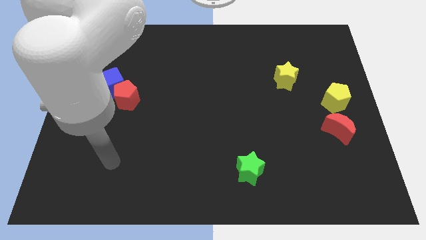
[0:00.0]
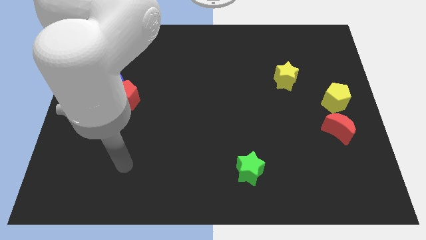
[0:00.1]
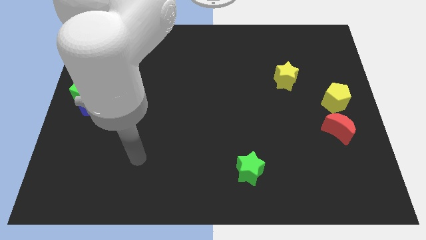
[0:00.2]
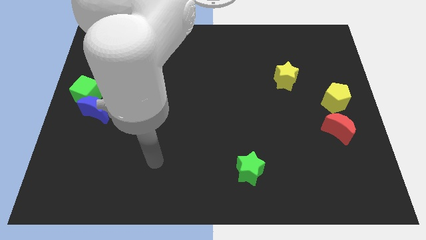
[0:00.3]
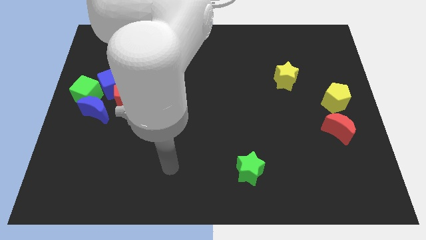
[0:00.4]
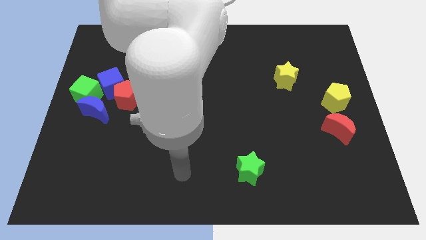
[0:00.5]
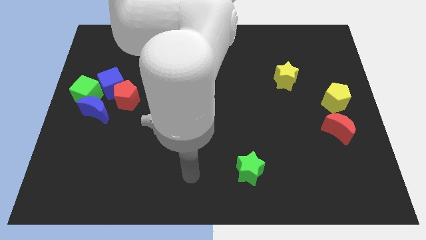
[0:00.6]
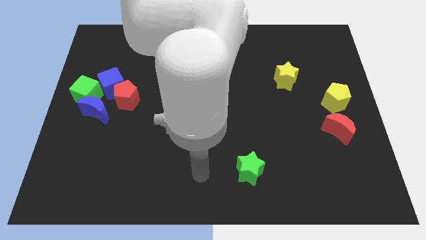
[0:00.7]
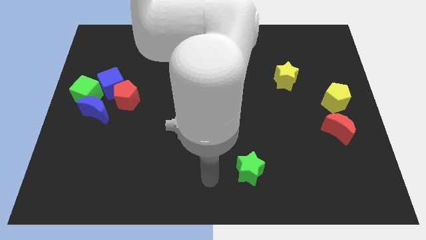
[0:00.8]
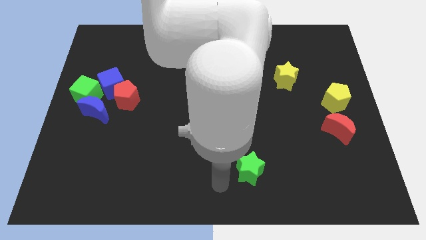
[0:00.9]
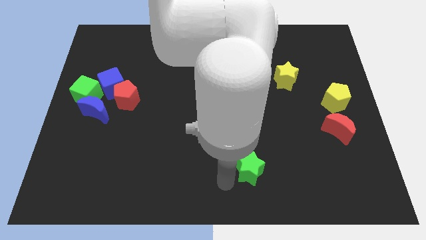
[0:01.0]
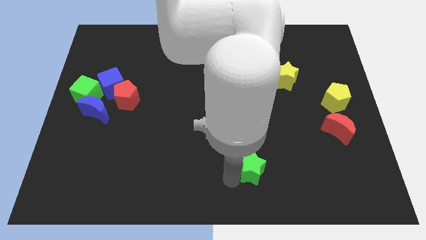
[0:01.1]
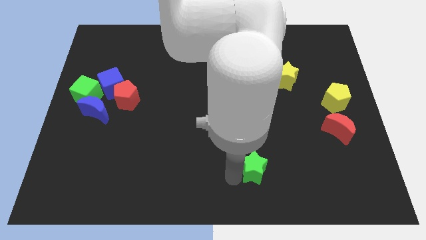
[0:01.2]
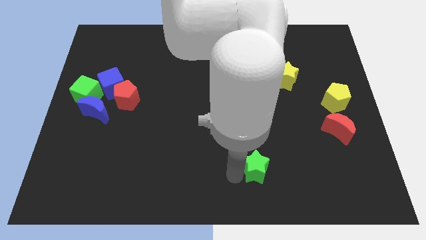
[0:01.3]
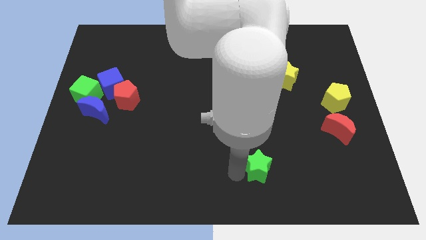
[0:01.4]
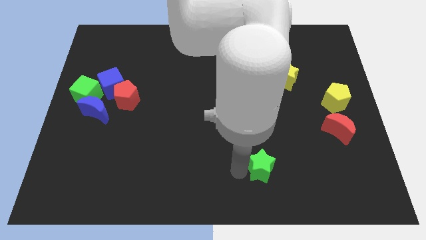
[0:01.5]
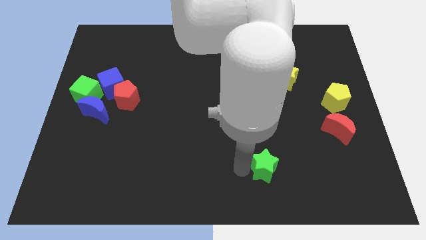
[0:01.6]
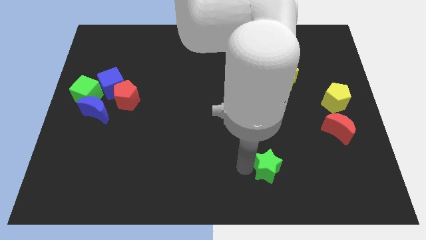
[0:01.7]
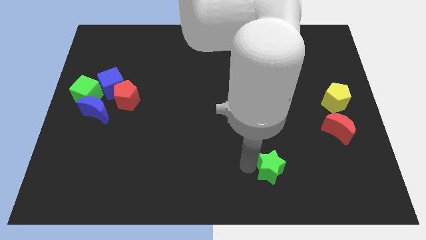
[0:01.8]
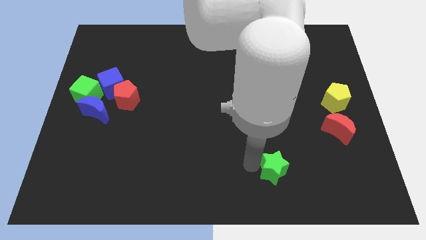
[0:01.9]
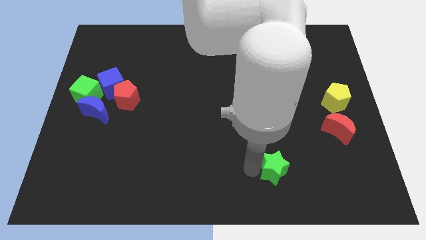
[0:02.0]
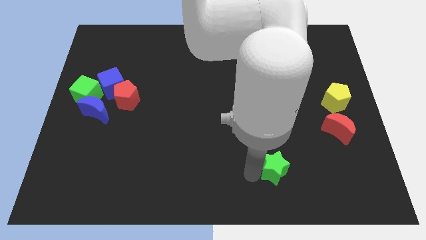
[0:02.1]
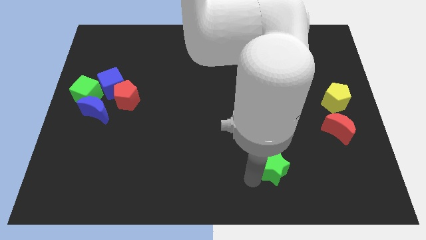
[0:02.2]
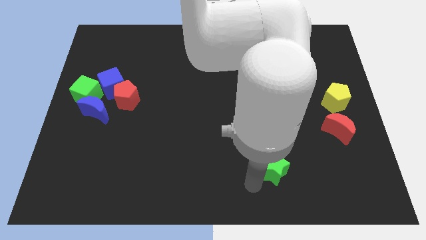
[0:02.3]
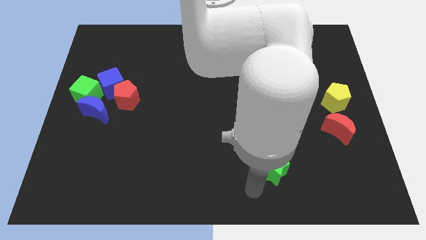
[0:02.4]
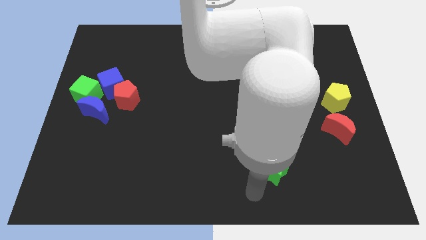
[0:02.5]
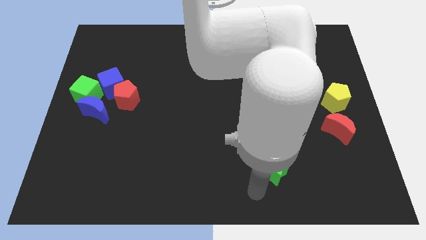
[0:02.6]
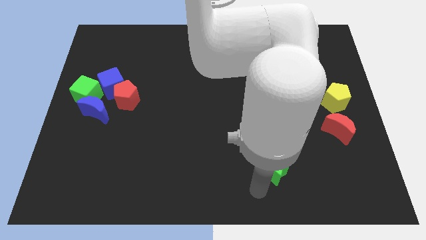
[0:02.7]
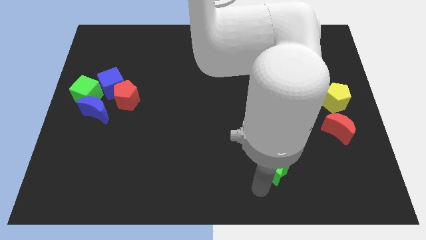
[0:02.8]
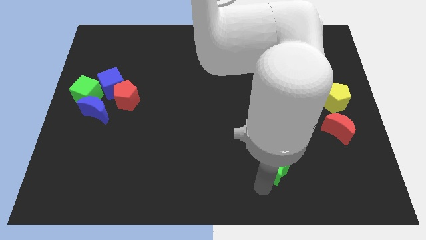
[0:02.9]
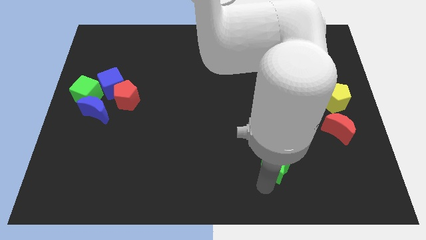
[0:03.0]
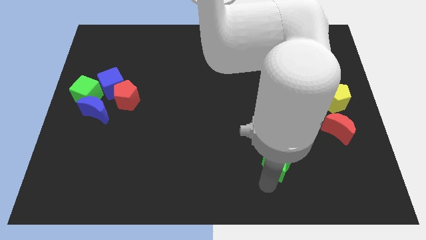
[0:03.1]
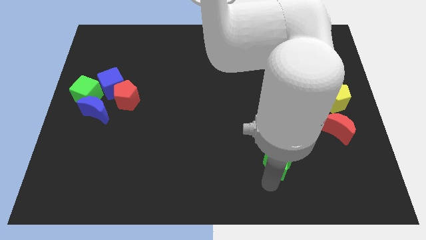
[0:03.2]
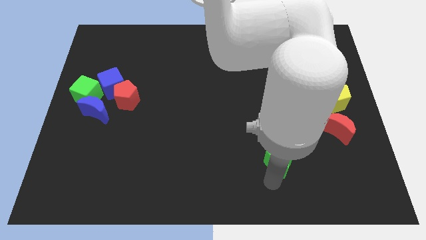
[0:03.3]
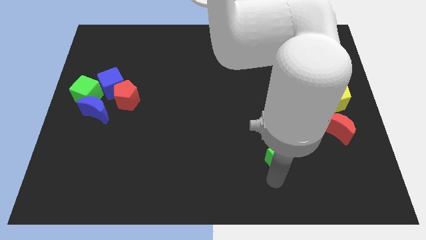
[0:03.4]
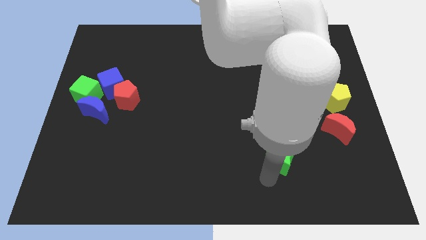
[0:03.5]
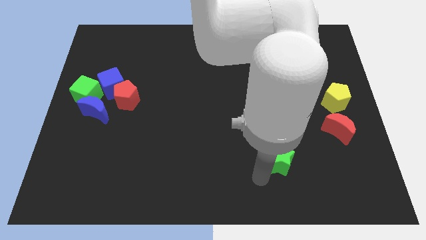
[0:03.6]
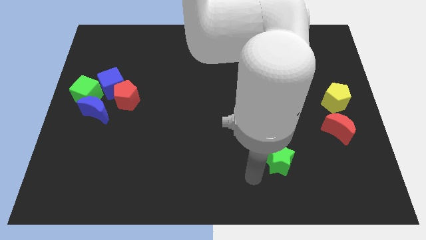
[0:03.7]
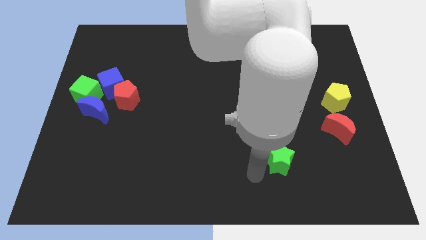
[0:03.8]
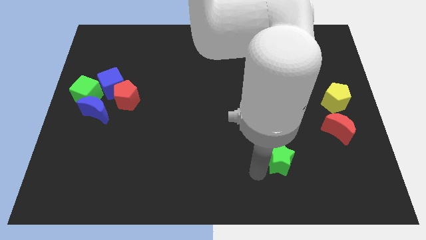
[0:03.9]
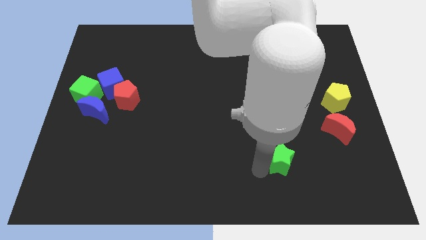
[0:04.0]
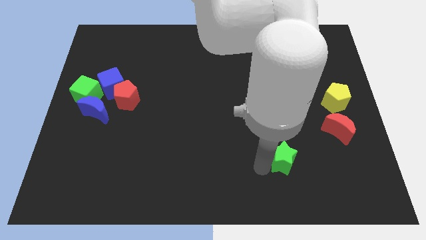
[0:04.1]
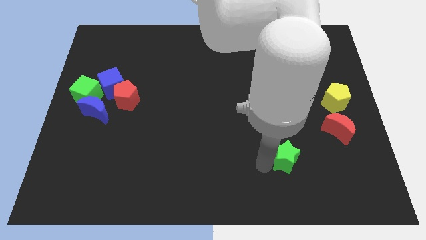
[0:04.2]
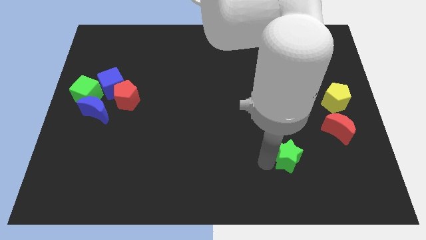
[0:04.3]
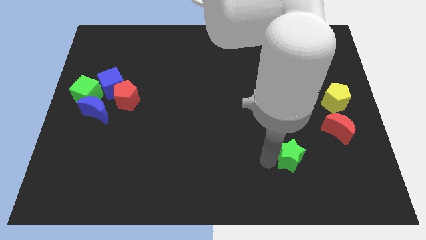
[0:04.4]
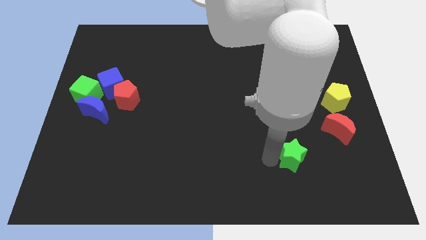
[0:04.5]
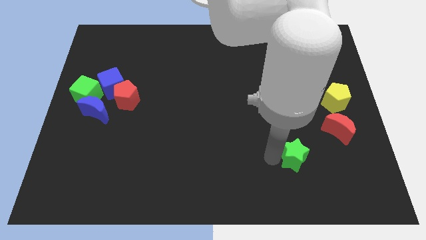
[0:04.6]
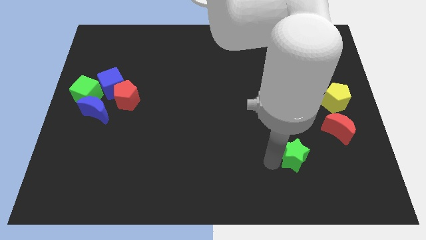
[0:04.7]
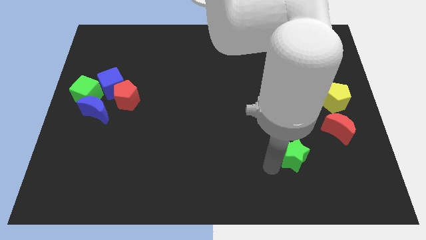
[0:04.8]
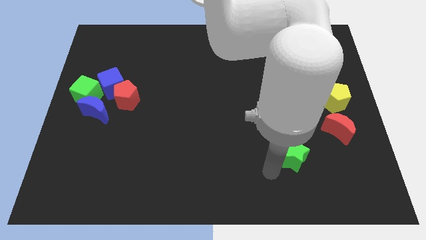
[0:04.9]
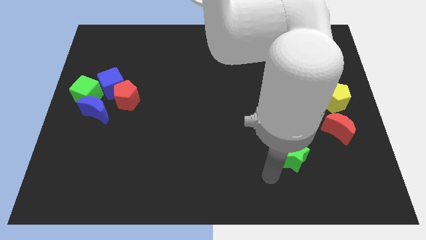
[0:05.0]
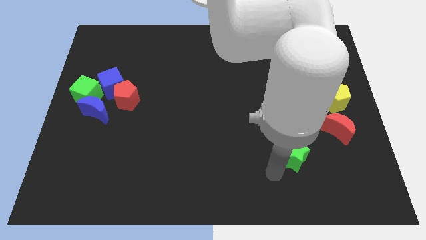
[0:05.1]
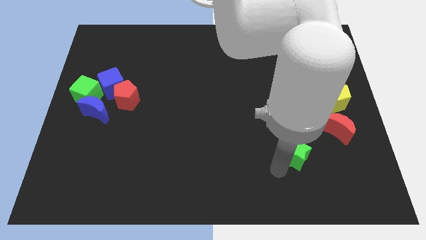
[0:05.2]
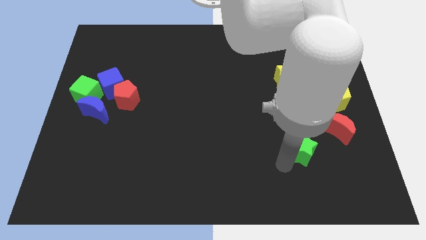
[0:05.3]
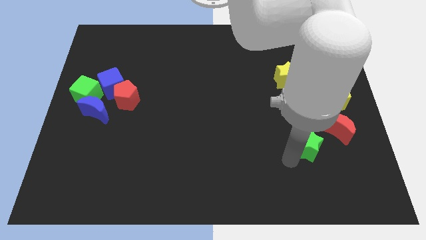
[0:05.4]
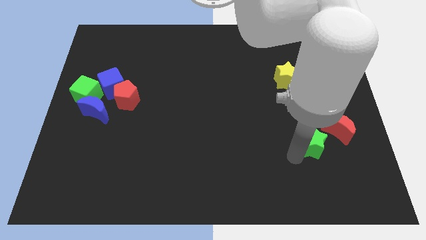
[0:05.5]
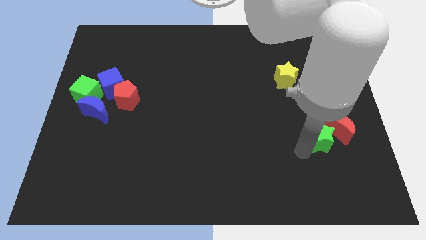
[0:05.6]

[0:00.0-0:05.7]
move the green star to the red moon

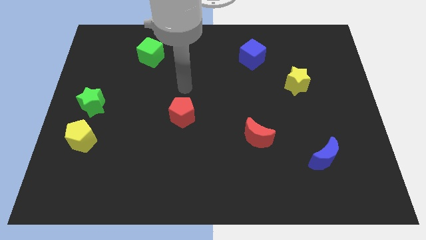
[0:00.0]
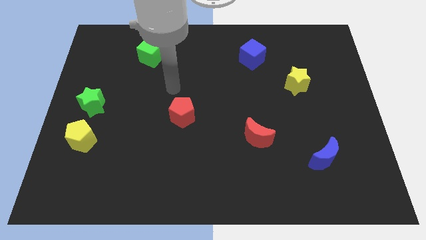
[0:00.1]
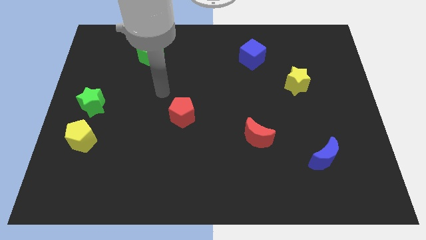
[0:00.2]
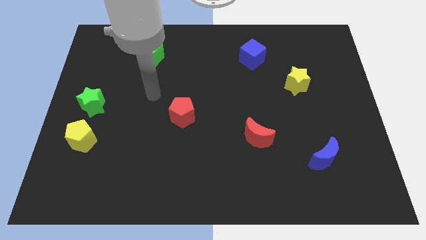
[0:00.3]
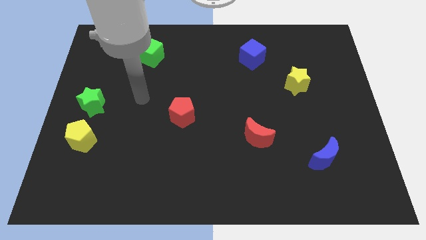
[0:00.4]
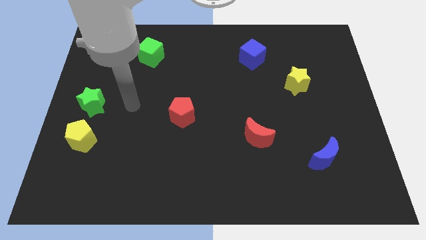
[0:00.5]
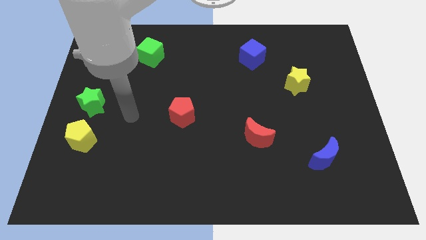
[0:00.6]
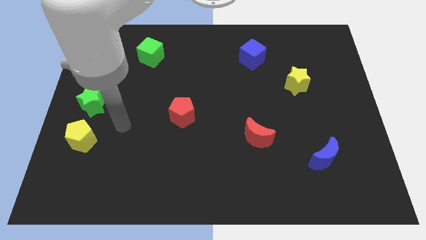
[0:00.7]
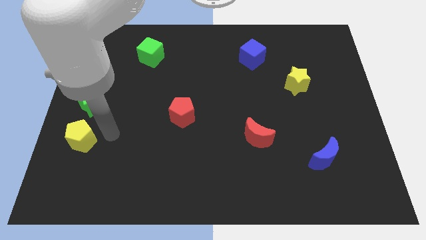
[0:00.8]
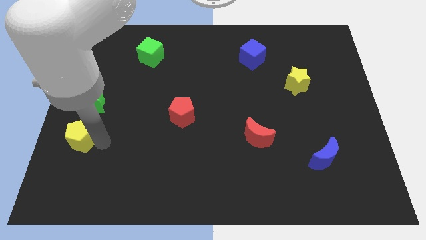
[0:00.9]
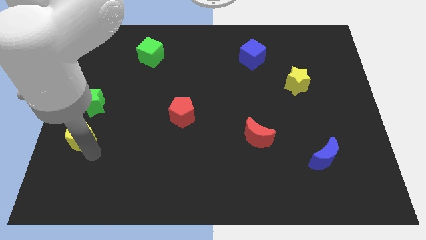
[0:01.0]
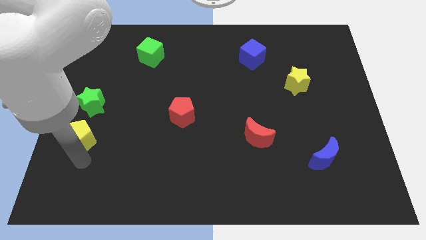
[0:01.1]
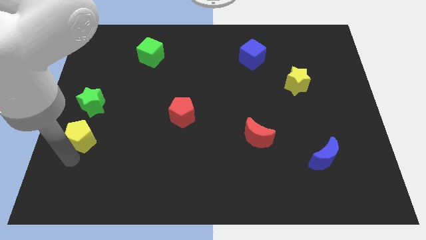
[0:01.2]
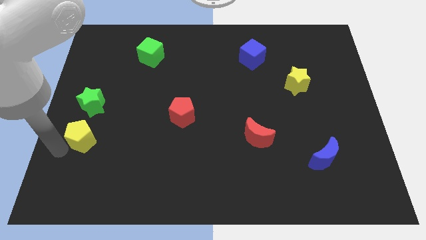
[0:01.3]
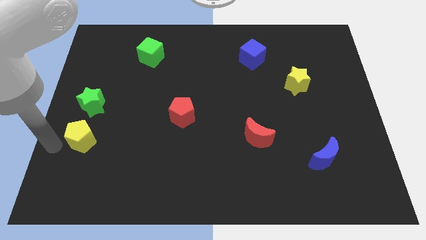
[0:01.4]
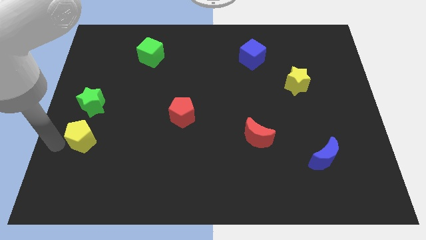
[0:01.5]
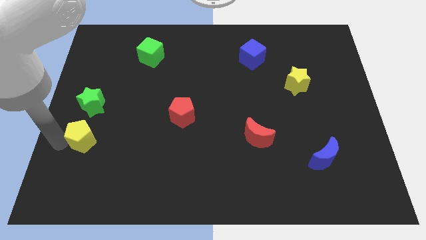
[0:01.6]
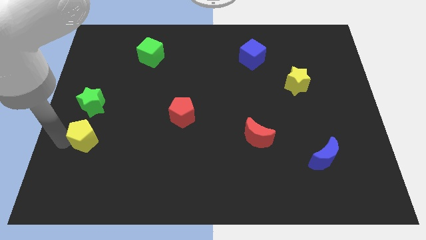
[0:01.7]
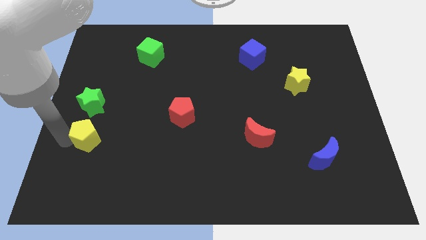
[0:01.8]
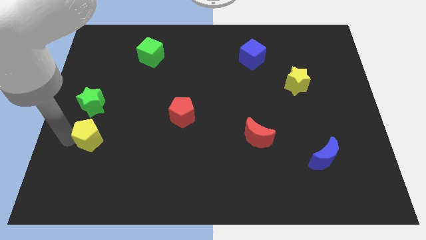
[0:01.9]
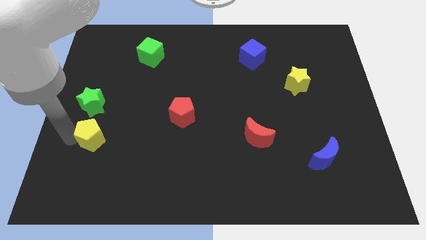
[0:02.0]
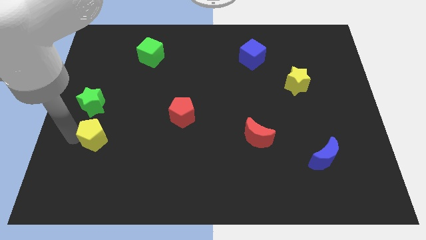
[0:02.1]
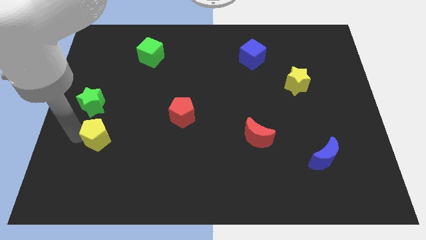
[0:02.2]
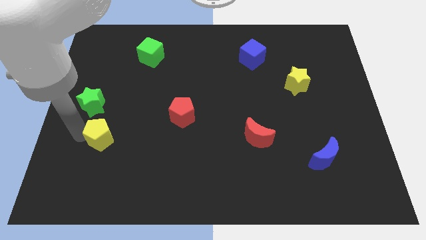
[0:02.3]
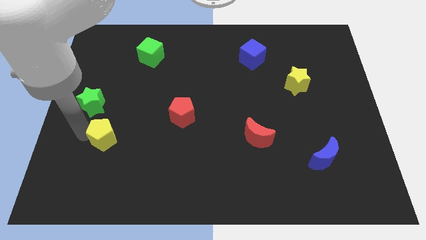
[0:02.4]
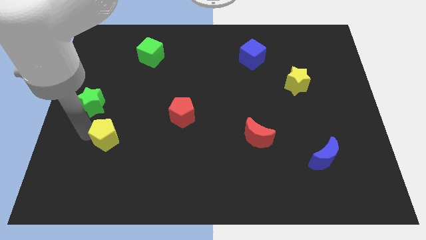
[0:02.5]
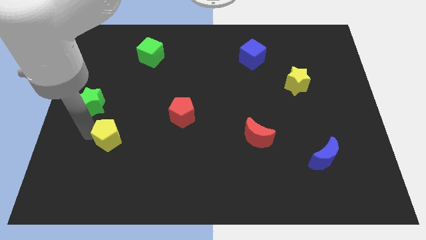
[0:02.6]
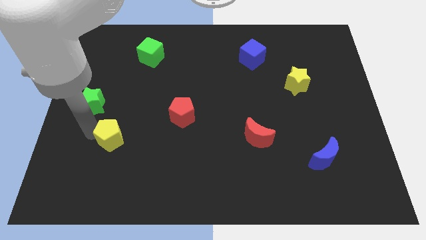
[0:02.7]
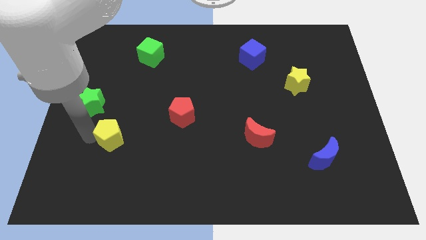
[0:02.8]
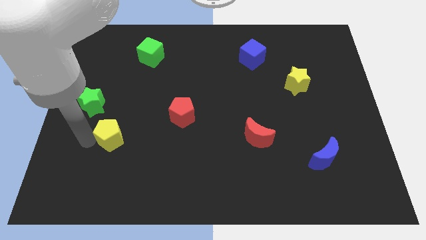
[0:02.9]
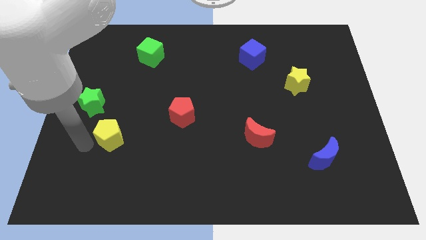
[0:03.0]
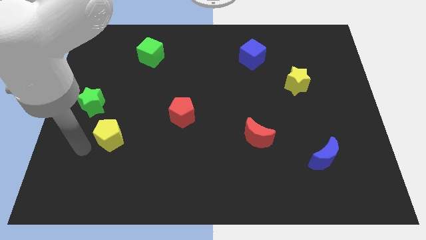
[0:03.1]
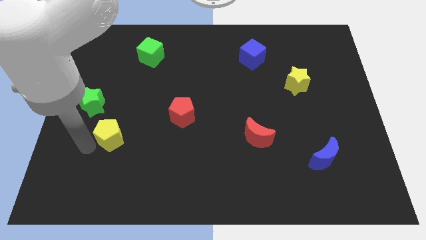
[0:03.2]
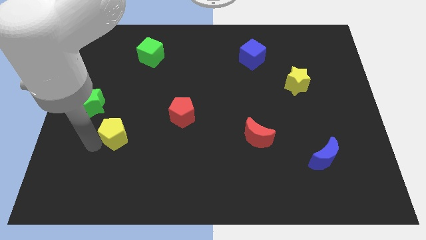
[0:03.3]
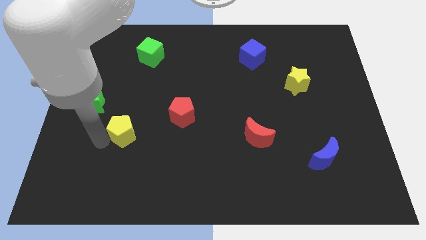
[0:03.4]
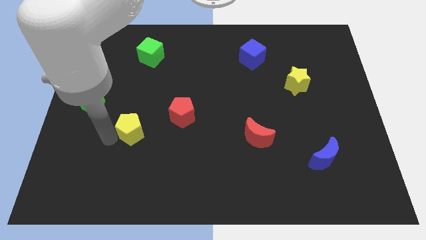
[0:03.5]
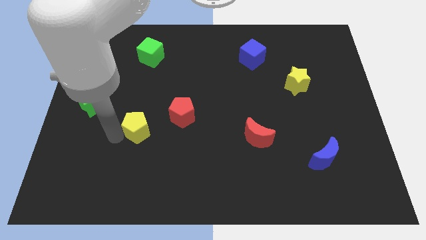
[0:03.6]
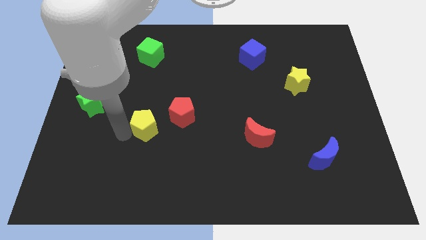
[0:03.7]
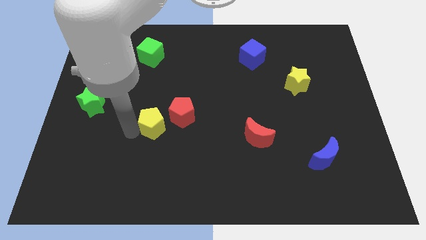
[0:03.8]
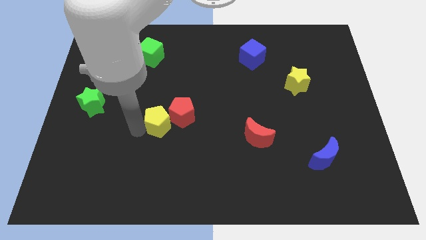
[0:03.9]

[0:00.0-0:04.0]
put the yellow pentagon next to the red pentagon
